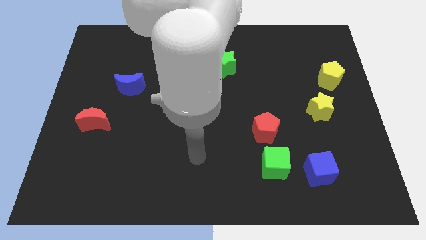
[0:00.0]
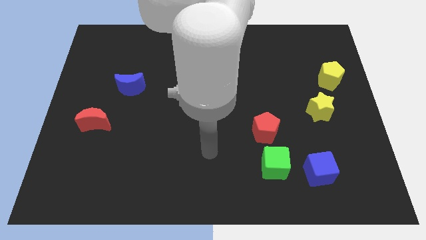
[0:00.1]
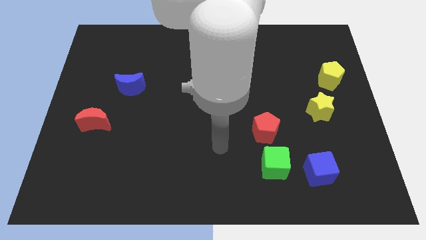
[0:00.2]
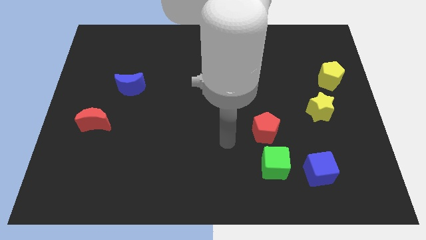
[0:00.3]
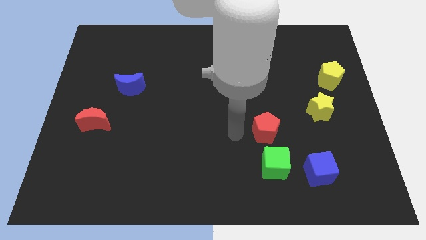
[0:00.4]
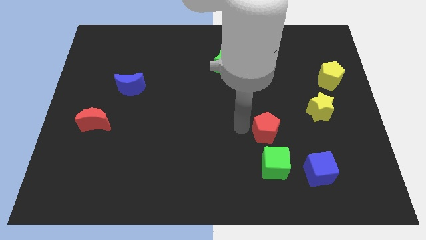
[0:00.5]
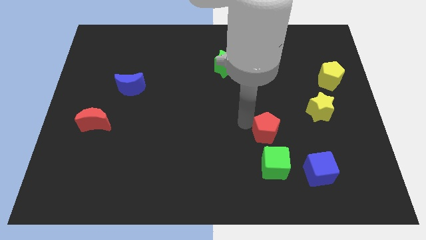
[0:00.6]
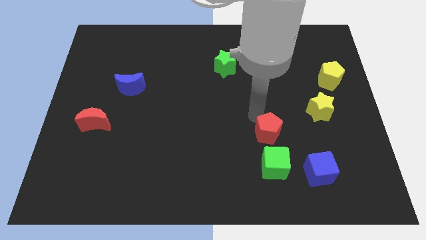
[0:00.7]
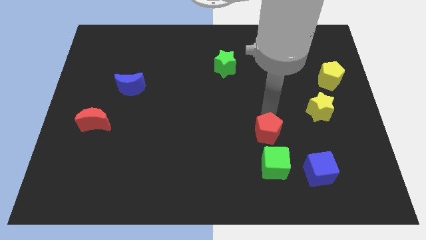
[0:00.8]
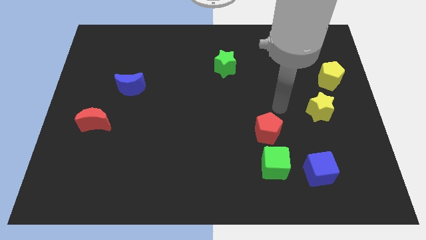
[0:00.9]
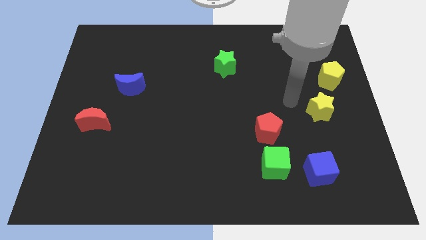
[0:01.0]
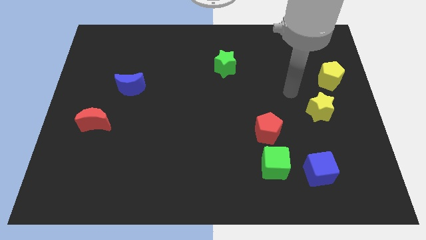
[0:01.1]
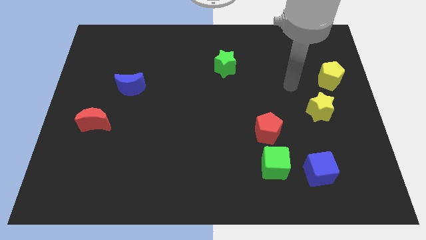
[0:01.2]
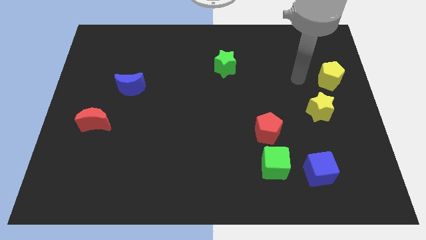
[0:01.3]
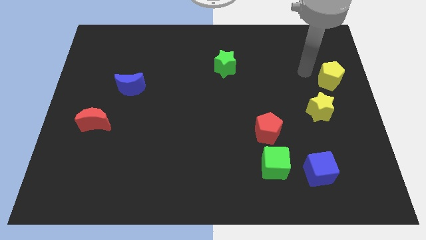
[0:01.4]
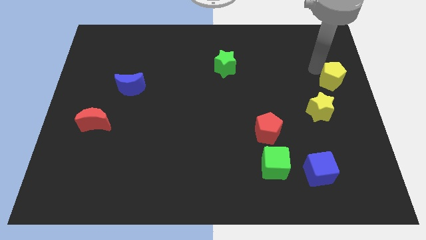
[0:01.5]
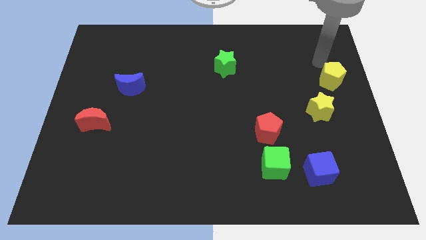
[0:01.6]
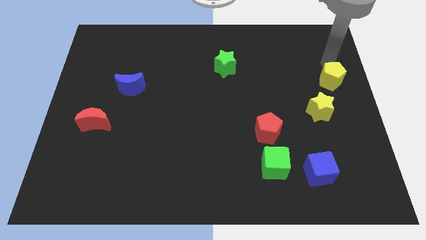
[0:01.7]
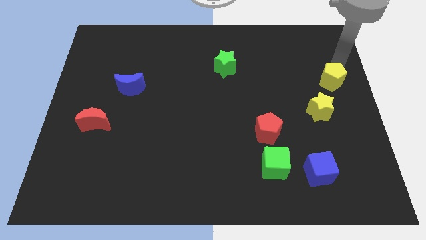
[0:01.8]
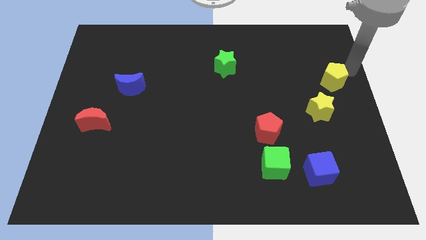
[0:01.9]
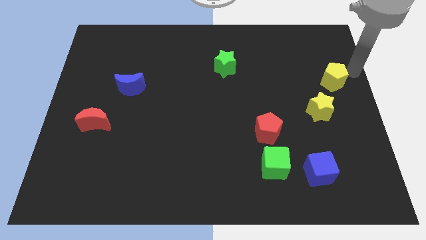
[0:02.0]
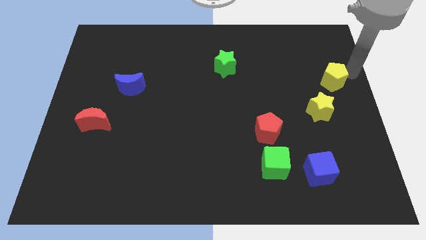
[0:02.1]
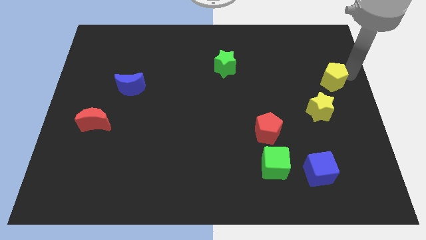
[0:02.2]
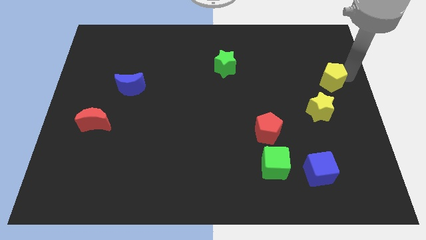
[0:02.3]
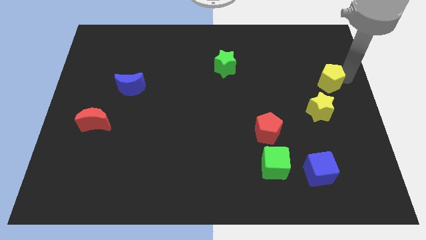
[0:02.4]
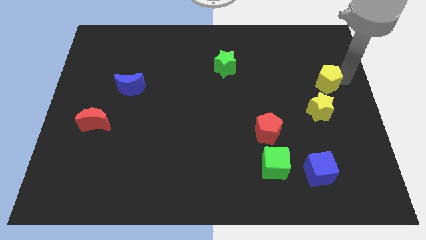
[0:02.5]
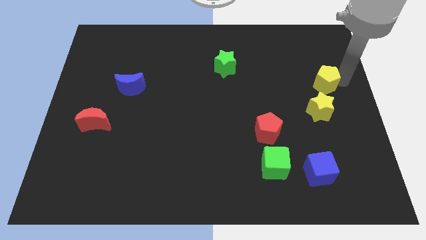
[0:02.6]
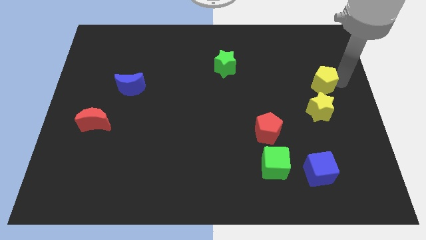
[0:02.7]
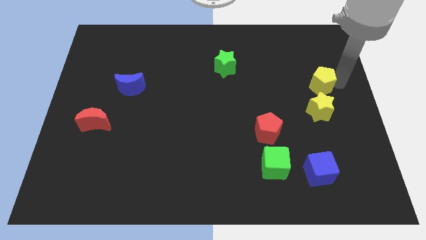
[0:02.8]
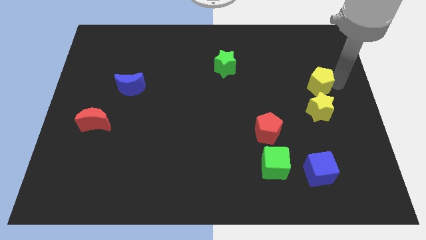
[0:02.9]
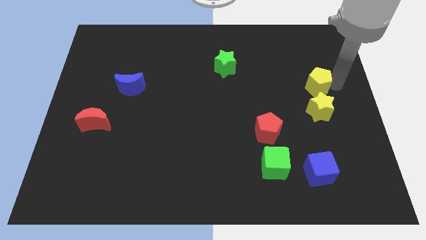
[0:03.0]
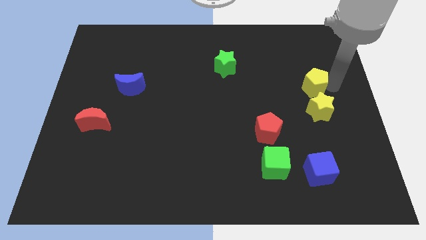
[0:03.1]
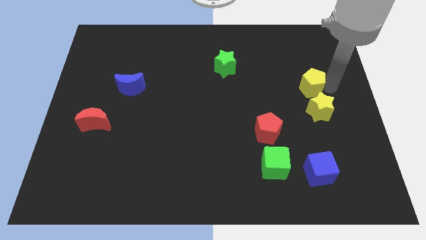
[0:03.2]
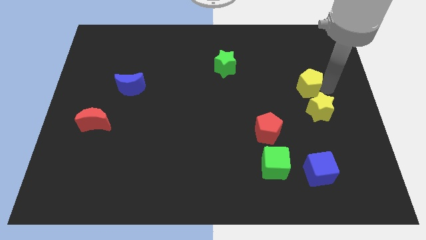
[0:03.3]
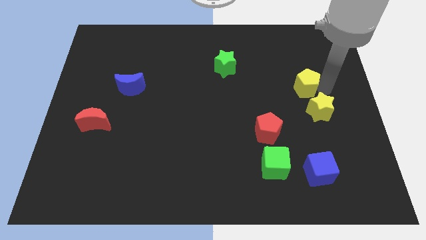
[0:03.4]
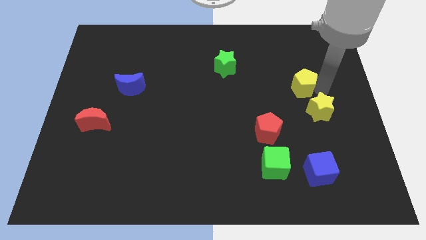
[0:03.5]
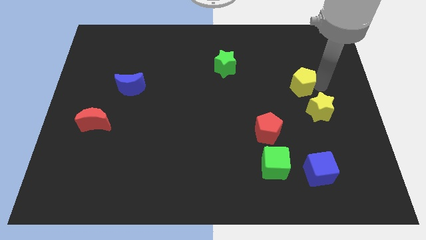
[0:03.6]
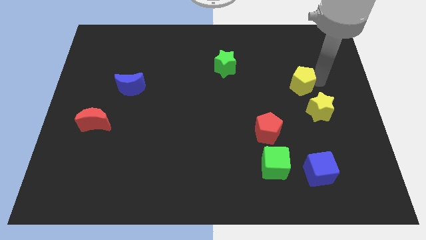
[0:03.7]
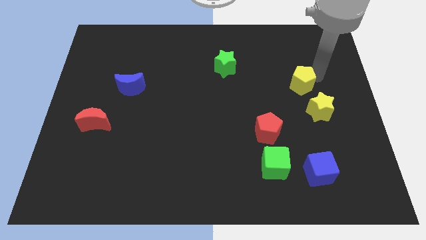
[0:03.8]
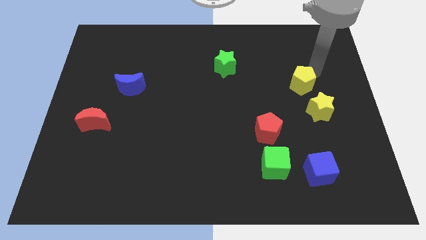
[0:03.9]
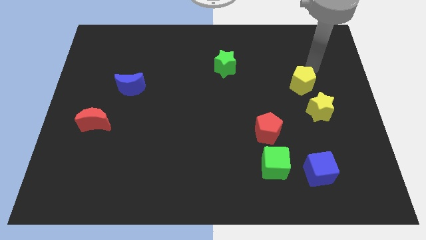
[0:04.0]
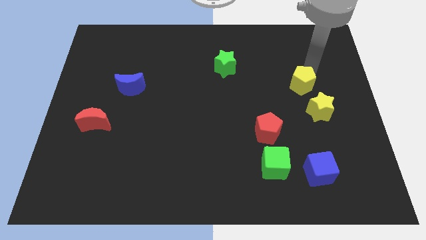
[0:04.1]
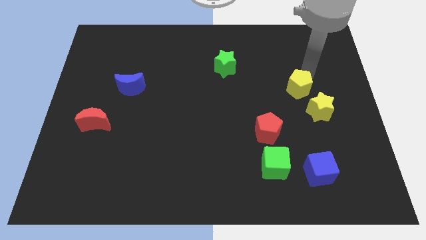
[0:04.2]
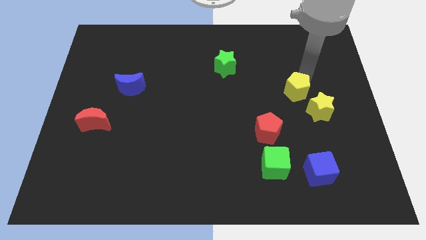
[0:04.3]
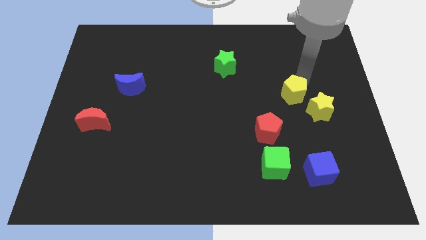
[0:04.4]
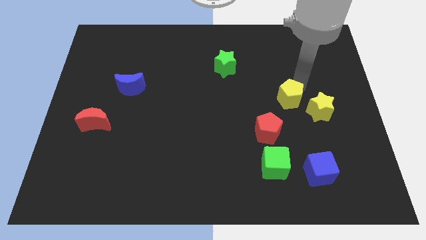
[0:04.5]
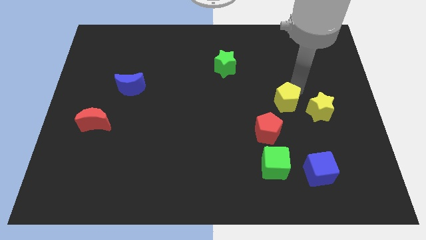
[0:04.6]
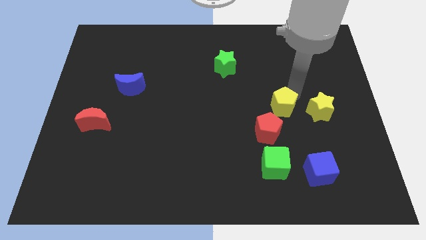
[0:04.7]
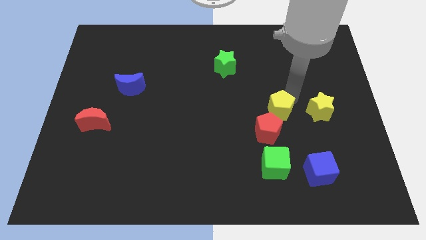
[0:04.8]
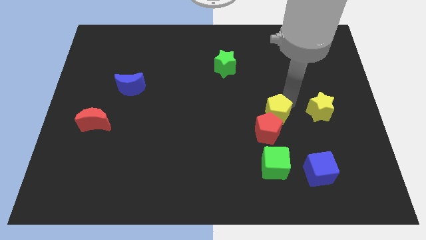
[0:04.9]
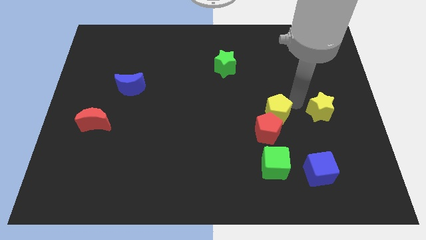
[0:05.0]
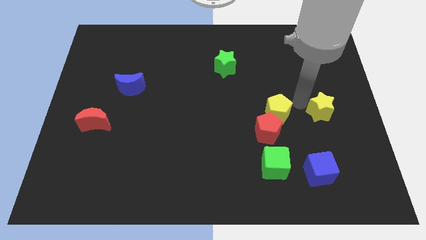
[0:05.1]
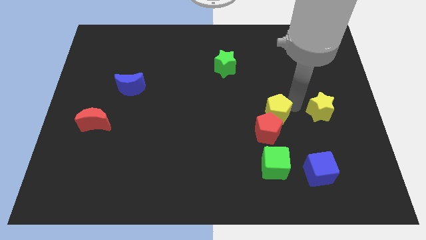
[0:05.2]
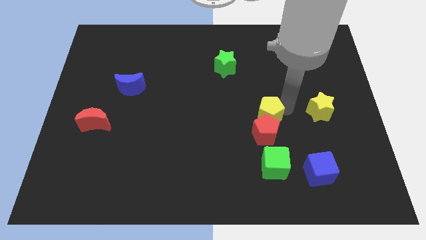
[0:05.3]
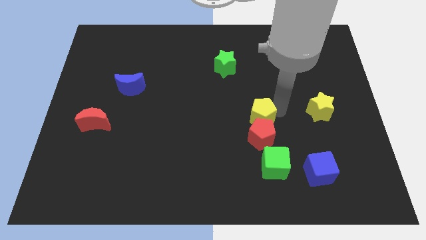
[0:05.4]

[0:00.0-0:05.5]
move the yellow pentagon down and left diagonally

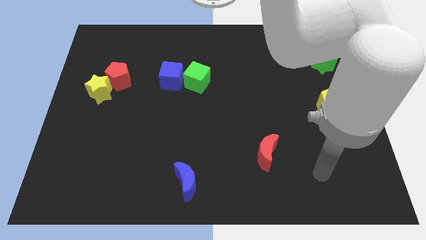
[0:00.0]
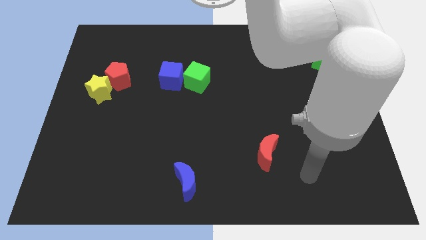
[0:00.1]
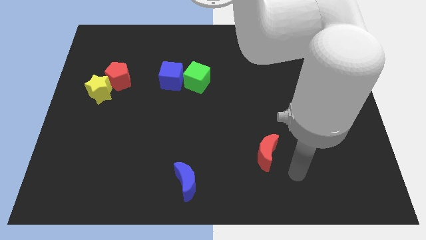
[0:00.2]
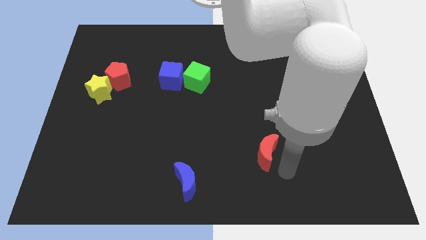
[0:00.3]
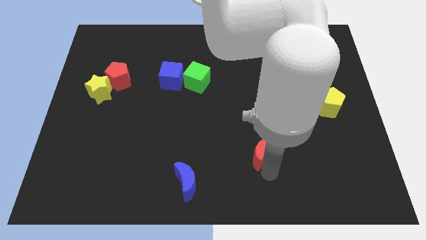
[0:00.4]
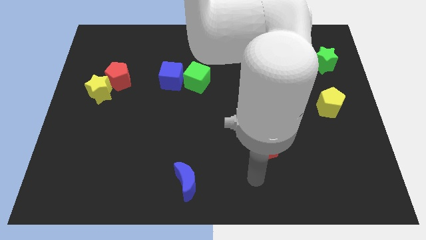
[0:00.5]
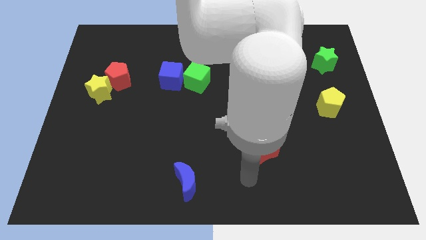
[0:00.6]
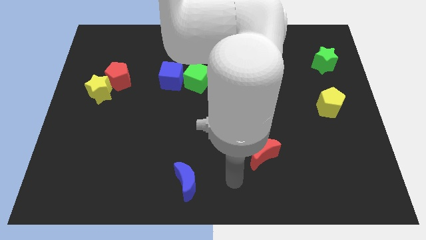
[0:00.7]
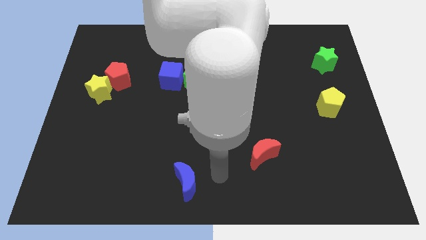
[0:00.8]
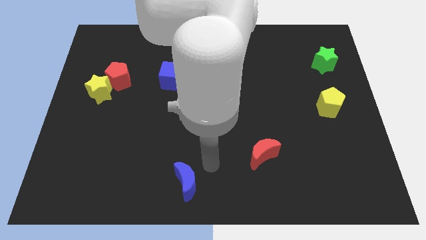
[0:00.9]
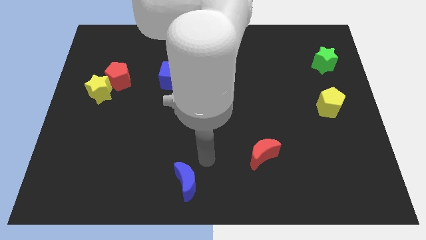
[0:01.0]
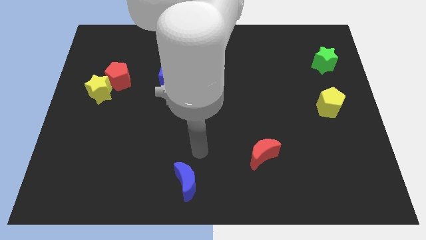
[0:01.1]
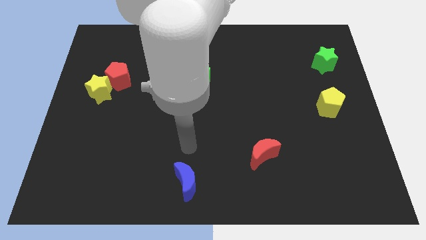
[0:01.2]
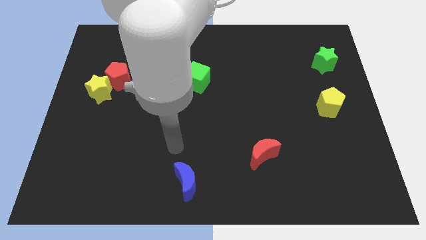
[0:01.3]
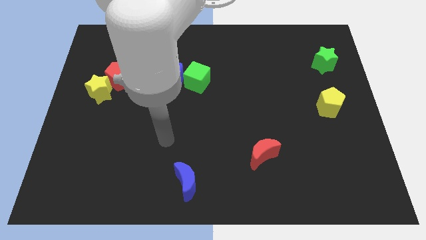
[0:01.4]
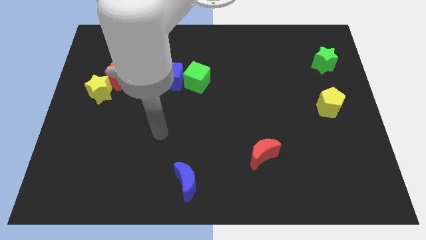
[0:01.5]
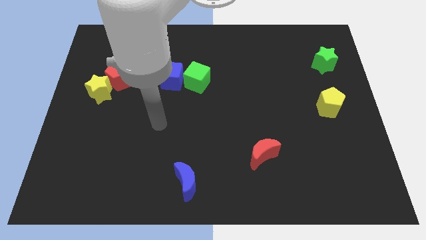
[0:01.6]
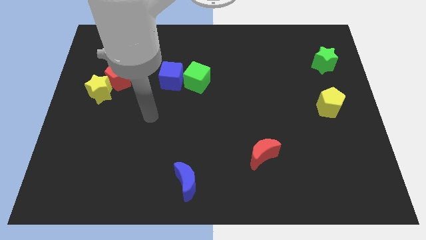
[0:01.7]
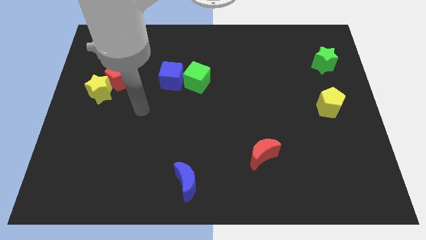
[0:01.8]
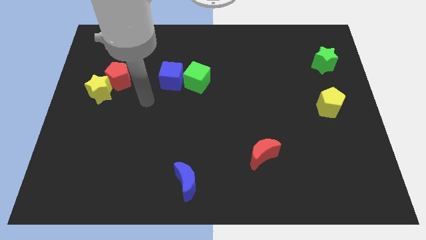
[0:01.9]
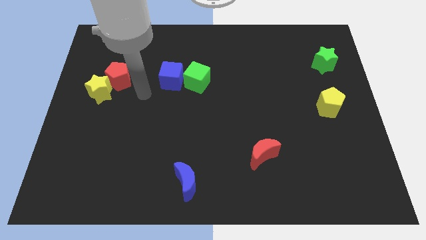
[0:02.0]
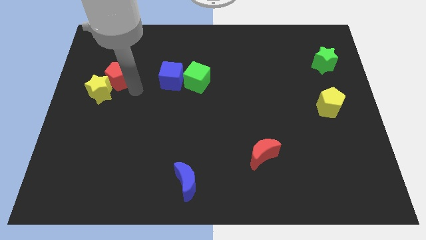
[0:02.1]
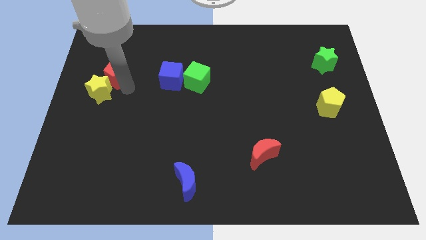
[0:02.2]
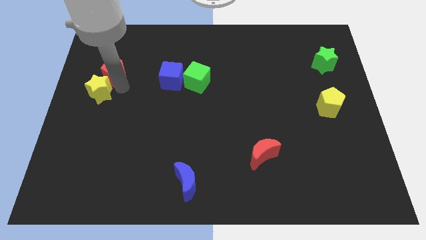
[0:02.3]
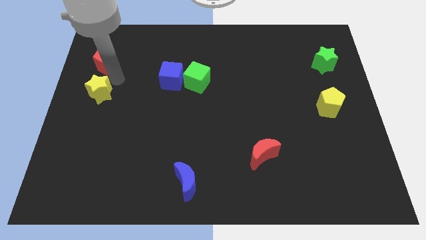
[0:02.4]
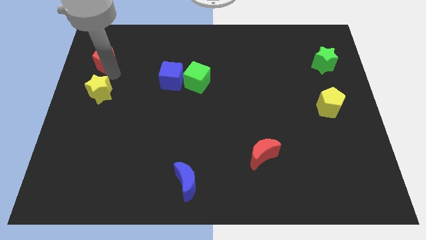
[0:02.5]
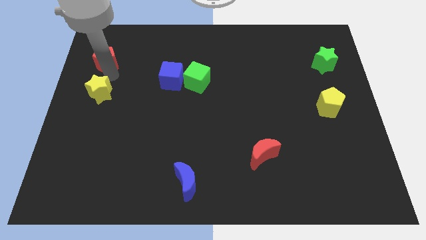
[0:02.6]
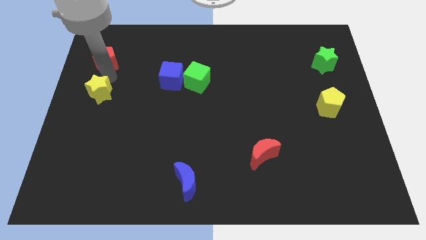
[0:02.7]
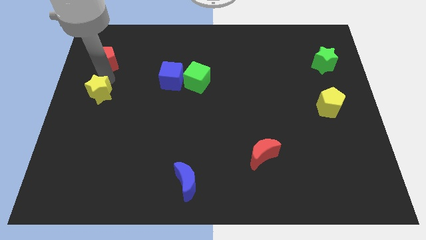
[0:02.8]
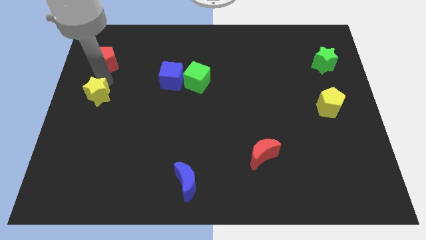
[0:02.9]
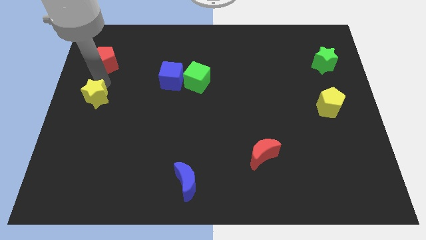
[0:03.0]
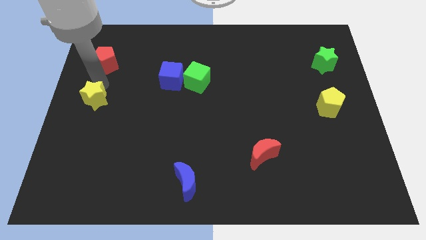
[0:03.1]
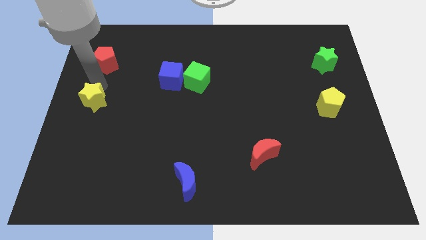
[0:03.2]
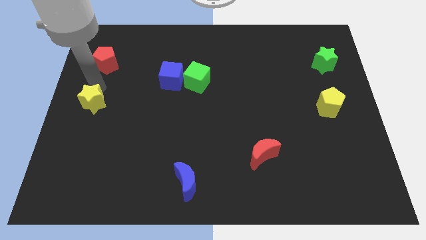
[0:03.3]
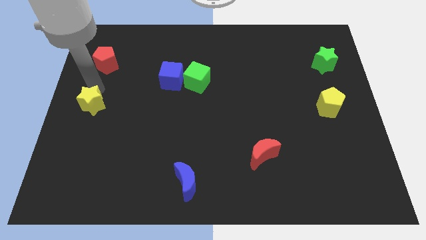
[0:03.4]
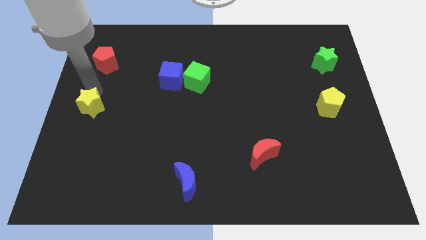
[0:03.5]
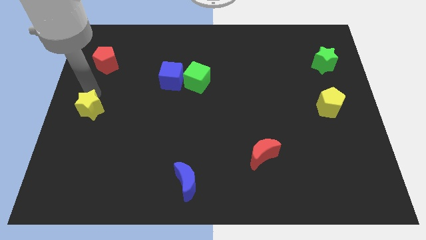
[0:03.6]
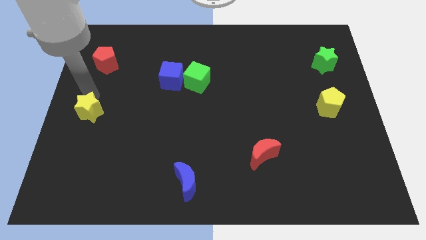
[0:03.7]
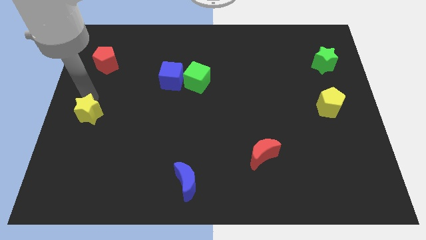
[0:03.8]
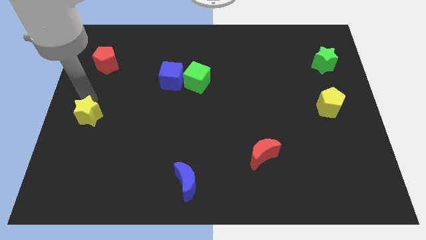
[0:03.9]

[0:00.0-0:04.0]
slide the yellow star down a bit
